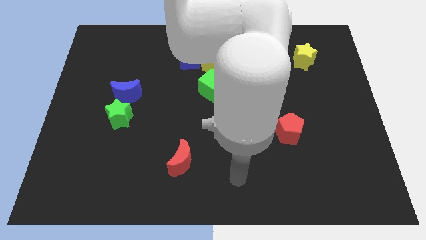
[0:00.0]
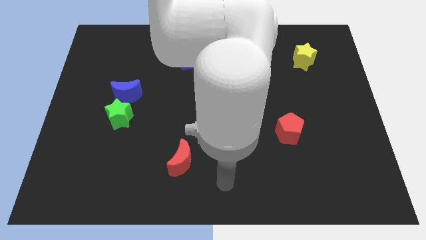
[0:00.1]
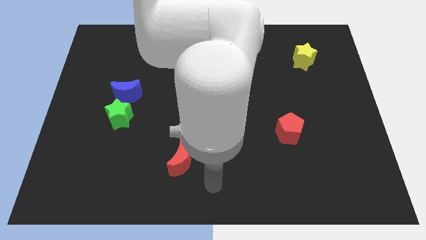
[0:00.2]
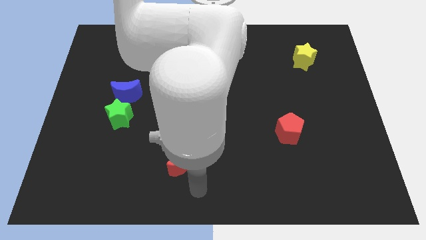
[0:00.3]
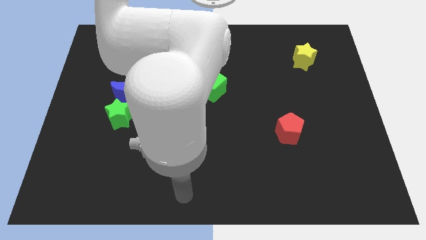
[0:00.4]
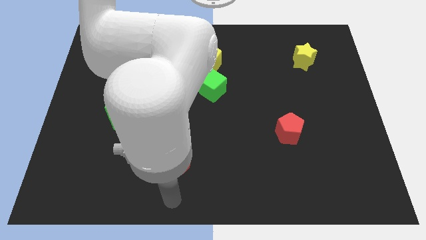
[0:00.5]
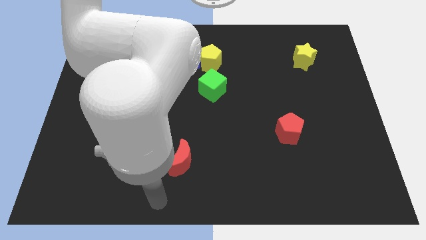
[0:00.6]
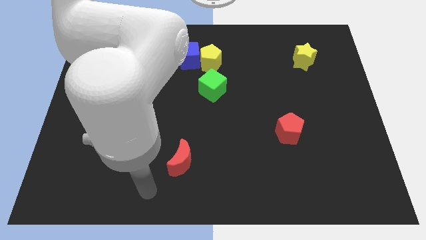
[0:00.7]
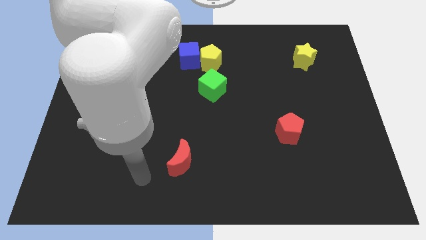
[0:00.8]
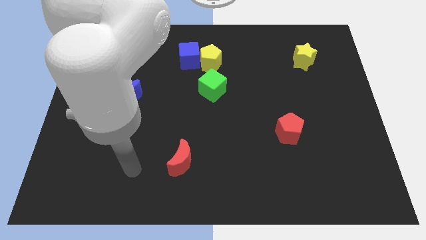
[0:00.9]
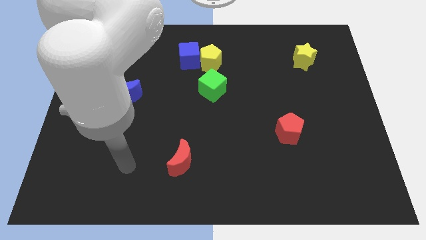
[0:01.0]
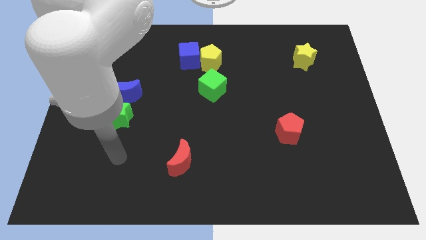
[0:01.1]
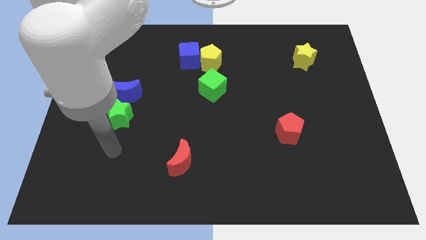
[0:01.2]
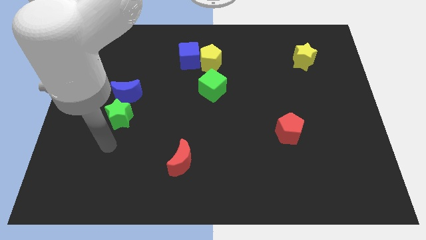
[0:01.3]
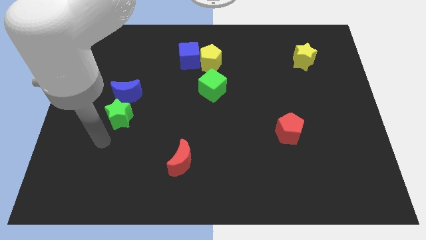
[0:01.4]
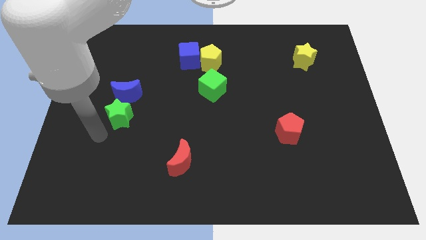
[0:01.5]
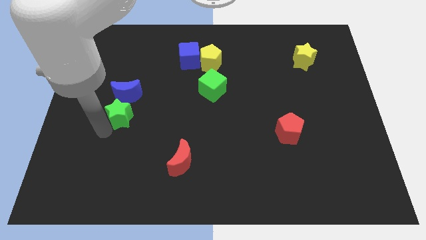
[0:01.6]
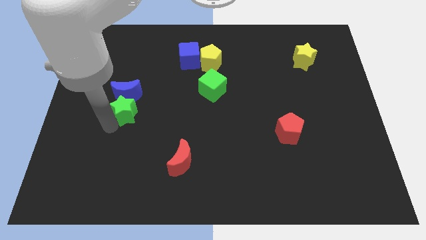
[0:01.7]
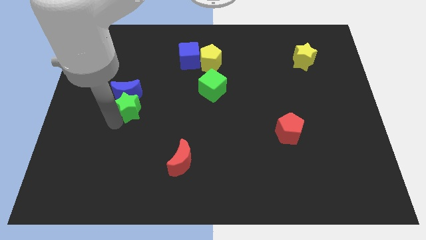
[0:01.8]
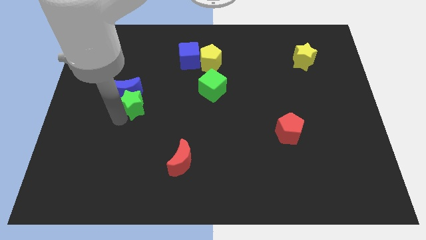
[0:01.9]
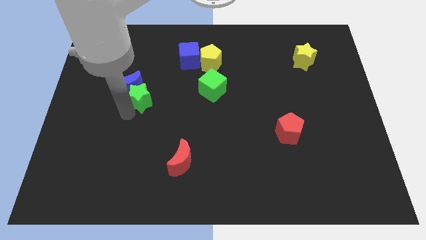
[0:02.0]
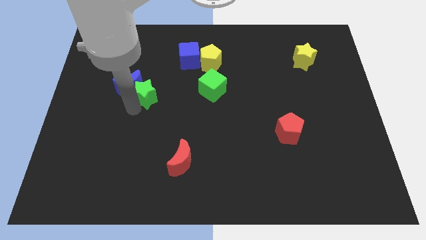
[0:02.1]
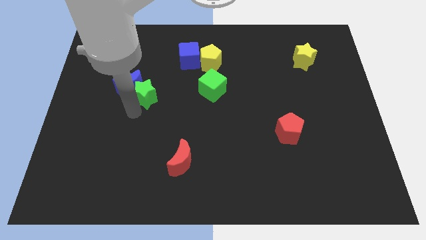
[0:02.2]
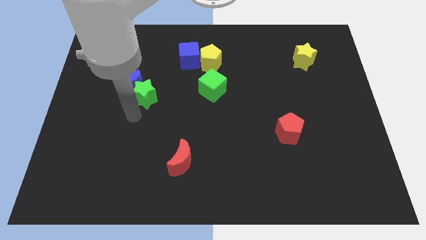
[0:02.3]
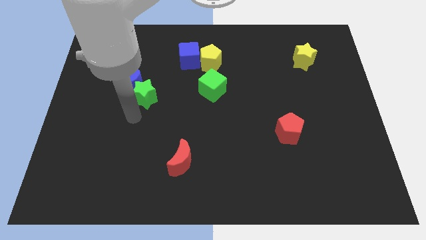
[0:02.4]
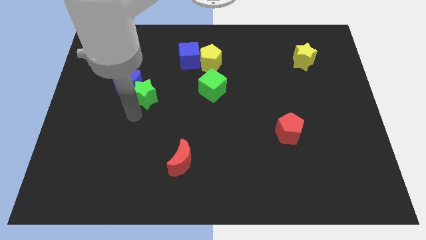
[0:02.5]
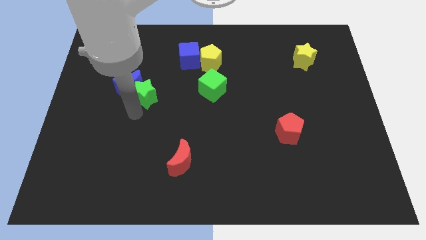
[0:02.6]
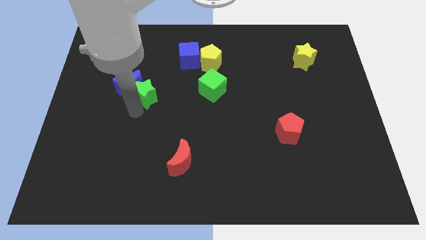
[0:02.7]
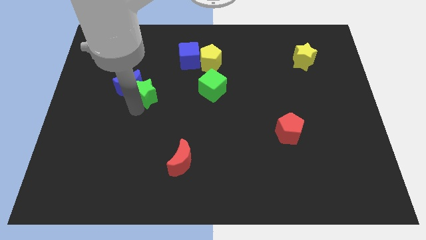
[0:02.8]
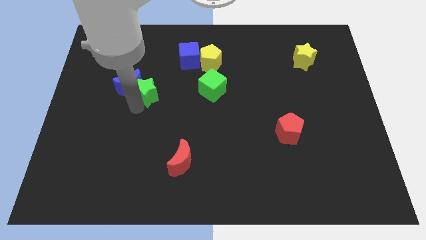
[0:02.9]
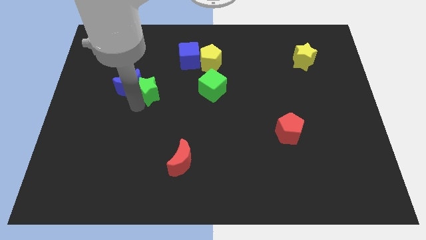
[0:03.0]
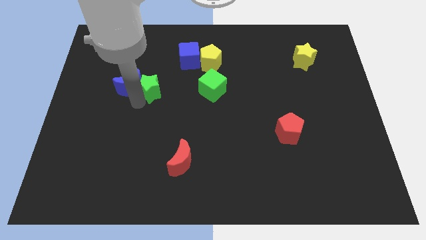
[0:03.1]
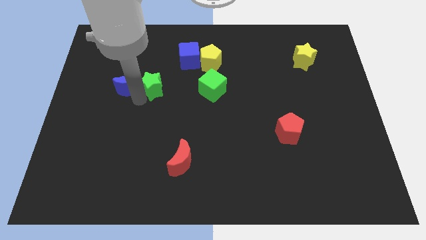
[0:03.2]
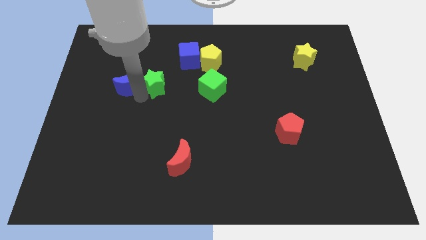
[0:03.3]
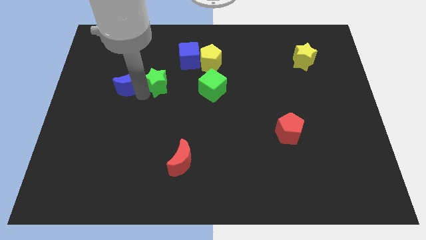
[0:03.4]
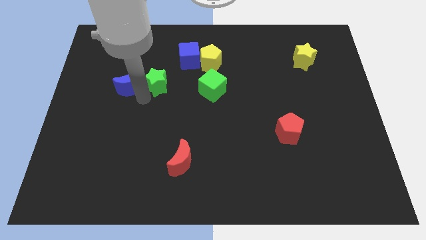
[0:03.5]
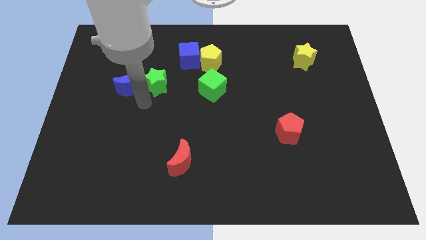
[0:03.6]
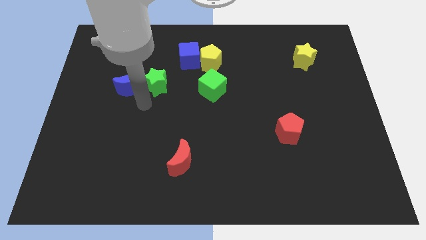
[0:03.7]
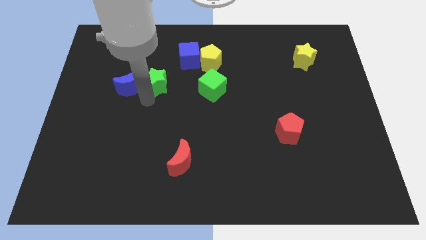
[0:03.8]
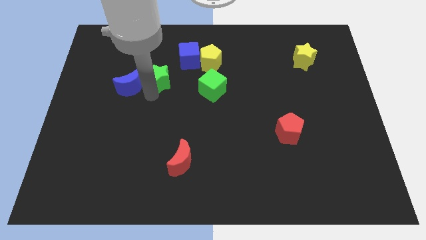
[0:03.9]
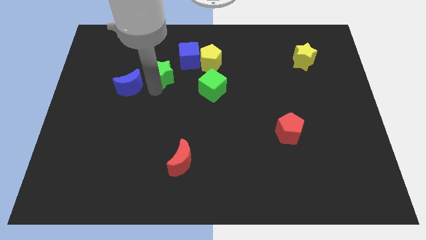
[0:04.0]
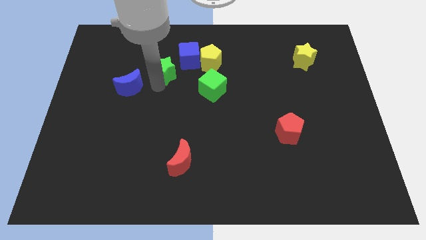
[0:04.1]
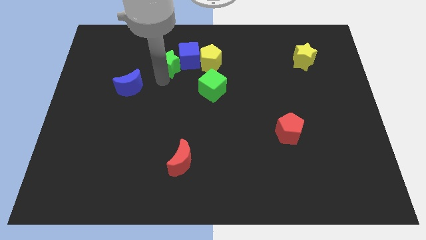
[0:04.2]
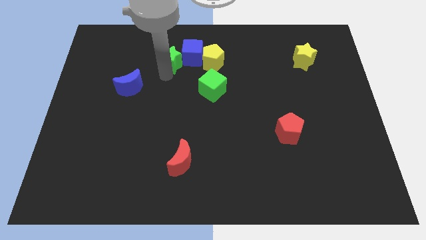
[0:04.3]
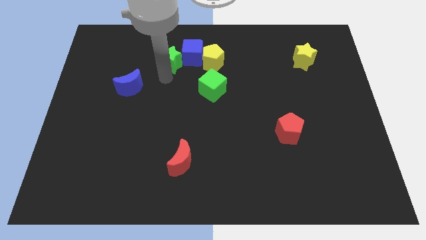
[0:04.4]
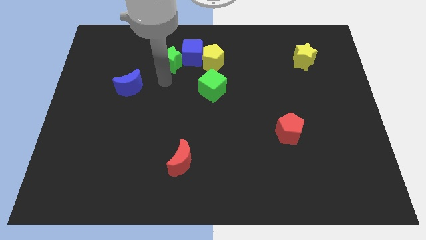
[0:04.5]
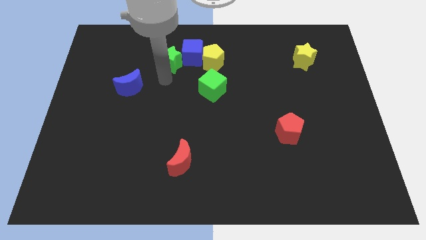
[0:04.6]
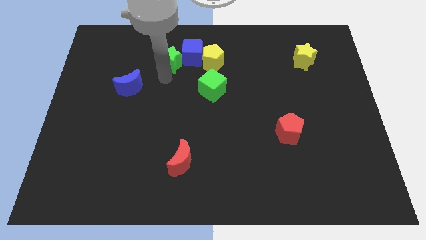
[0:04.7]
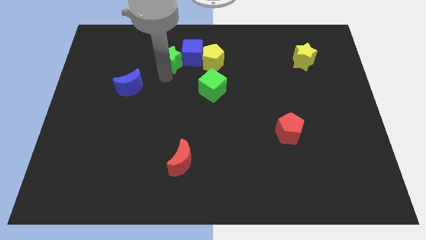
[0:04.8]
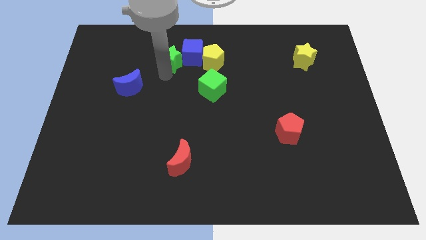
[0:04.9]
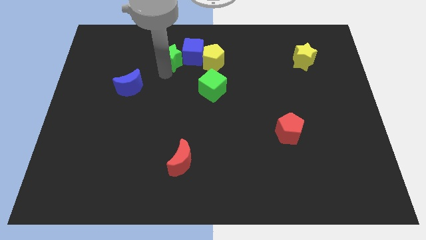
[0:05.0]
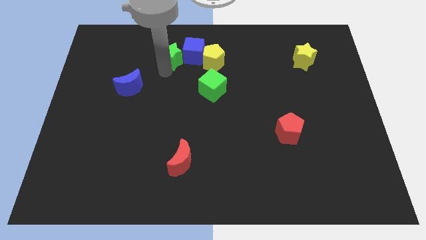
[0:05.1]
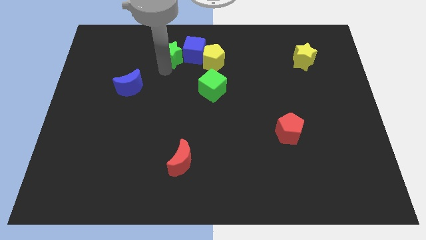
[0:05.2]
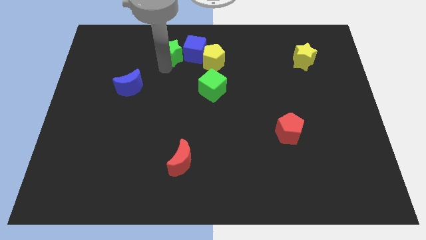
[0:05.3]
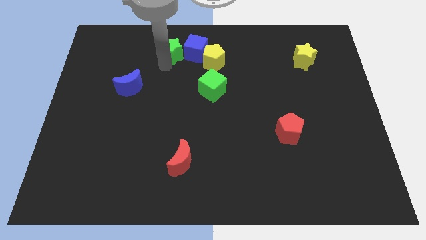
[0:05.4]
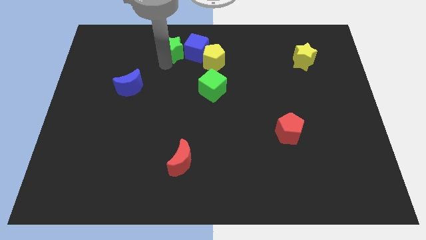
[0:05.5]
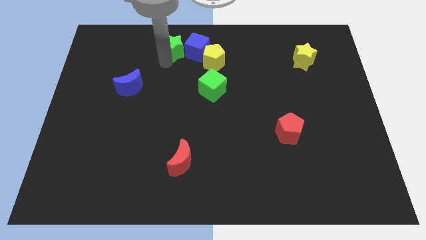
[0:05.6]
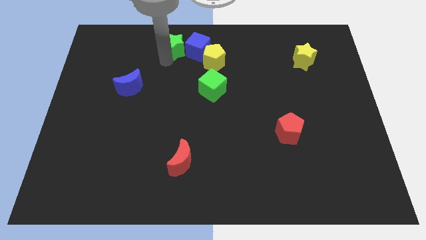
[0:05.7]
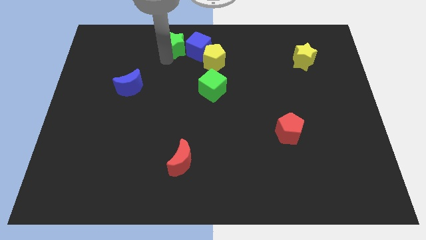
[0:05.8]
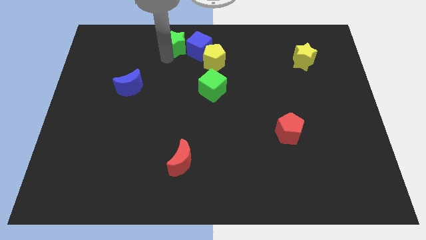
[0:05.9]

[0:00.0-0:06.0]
slide the green star to the top side

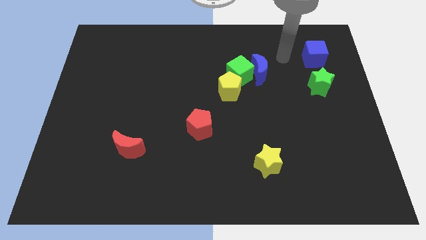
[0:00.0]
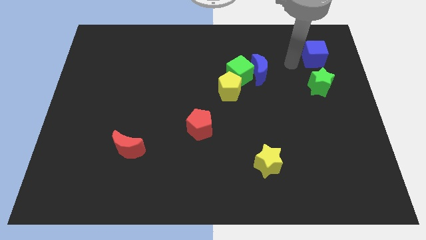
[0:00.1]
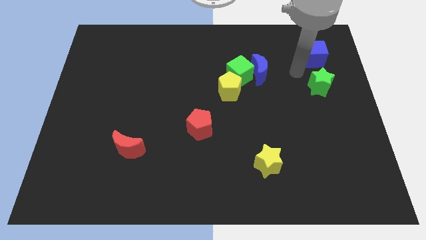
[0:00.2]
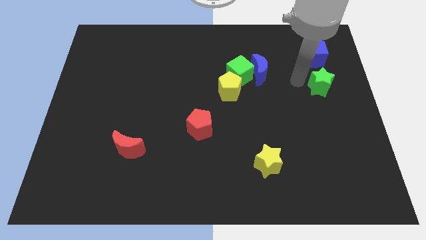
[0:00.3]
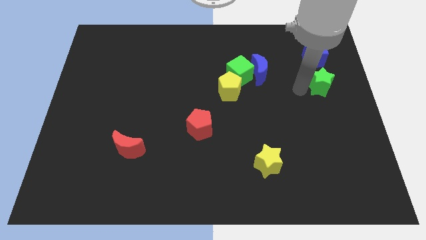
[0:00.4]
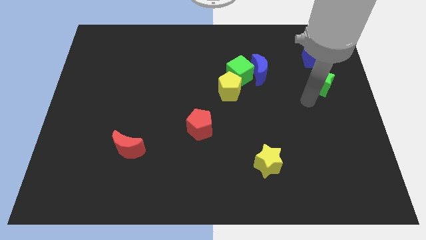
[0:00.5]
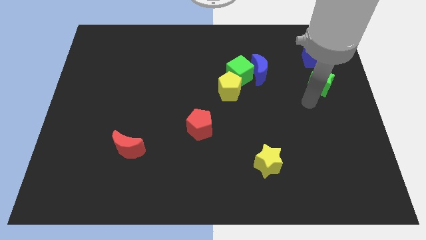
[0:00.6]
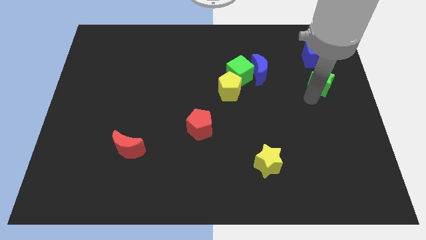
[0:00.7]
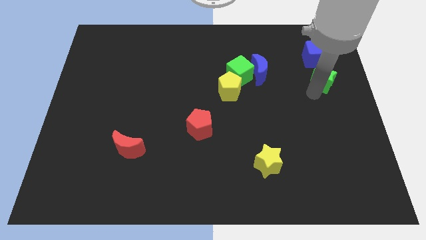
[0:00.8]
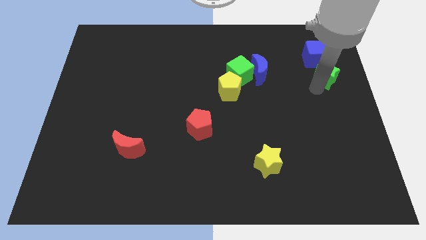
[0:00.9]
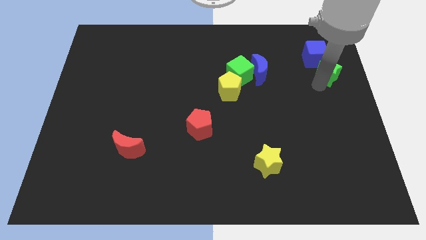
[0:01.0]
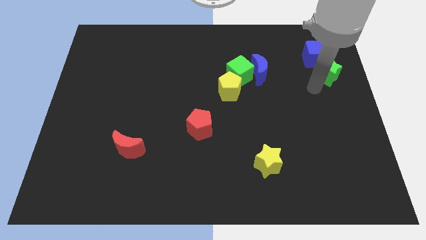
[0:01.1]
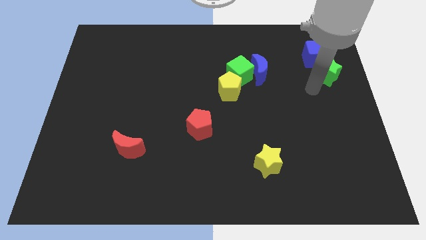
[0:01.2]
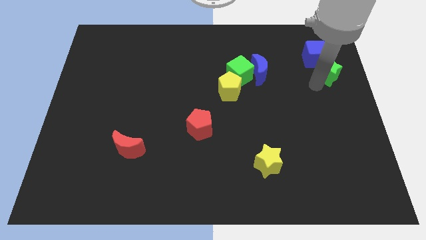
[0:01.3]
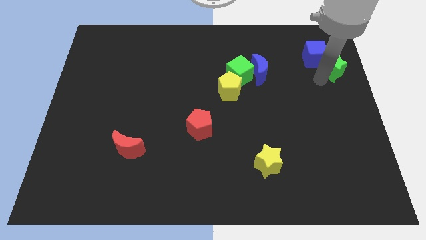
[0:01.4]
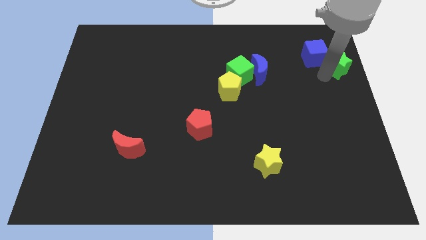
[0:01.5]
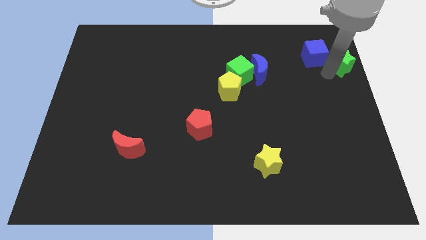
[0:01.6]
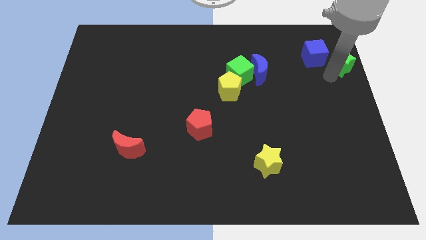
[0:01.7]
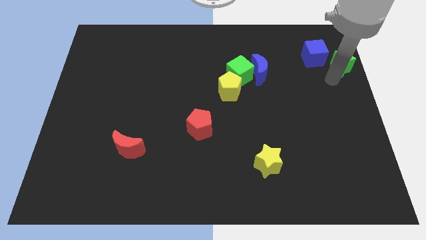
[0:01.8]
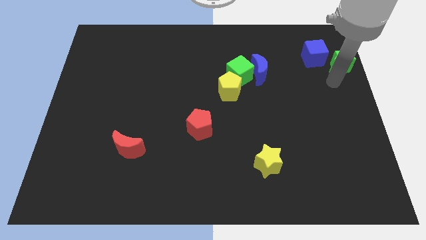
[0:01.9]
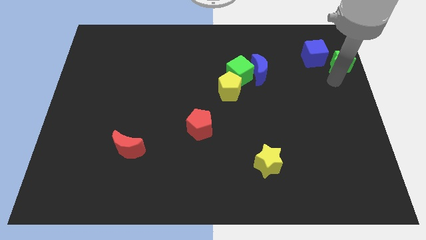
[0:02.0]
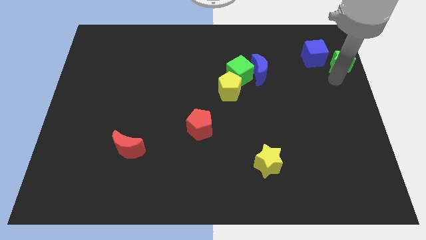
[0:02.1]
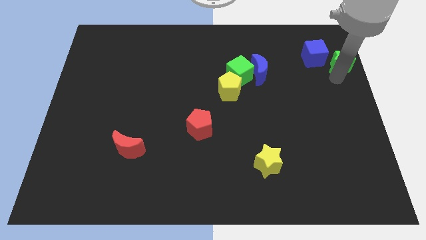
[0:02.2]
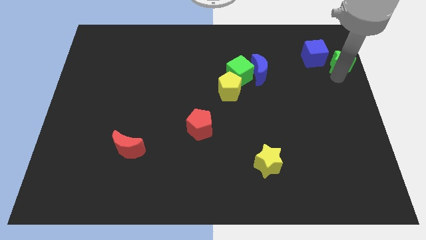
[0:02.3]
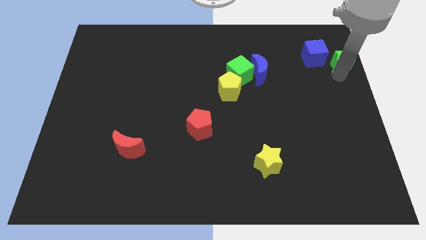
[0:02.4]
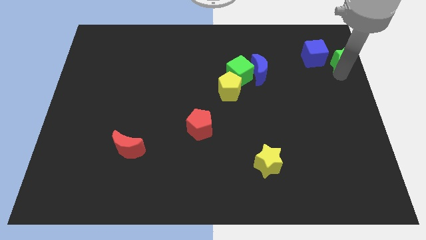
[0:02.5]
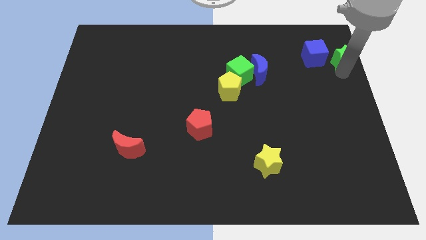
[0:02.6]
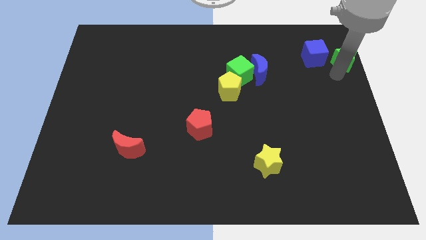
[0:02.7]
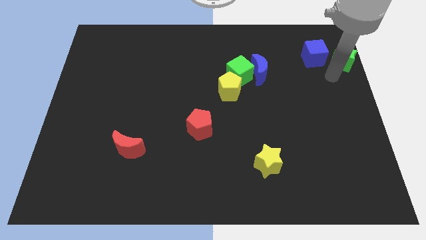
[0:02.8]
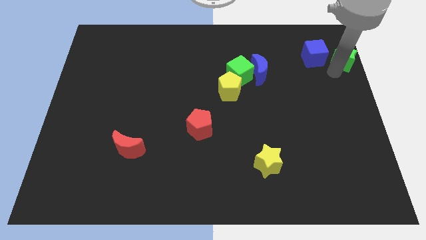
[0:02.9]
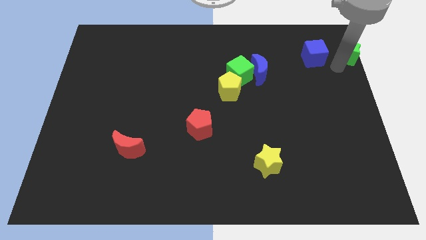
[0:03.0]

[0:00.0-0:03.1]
slide the green star to the upper right corner
